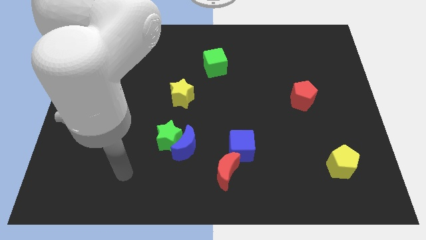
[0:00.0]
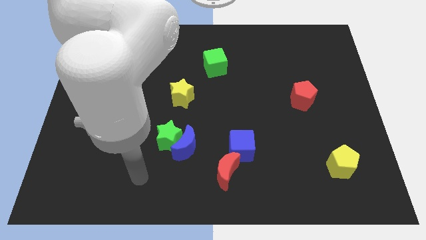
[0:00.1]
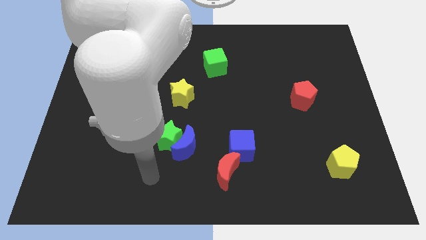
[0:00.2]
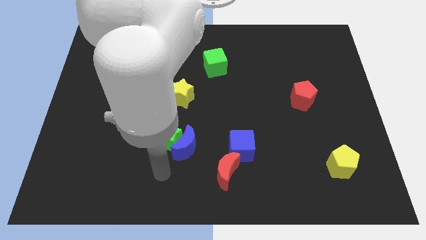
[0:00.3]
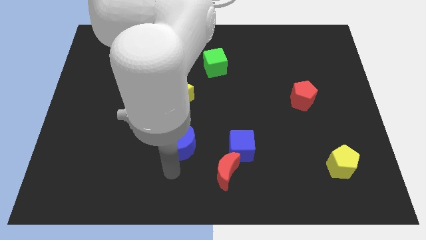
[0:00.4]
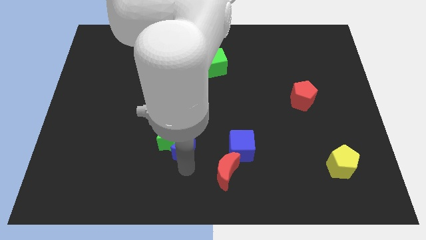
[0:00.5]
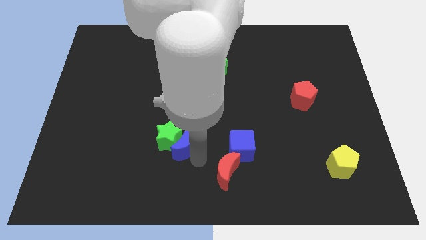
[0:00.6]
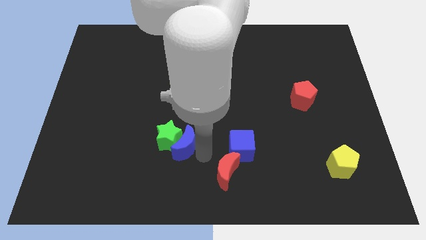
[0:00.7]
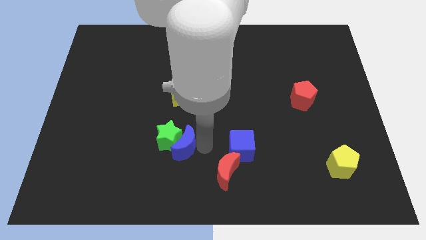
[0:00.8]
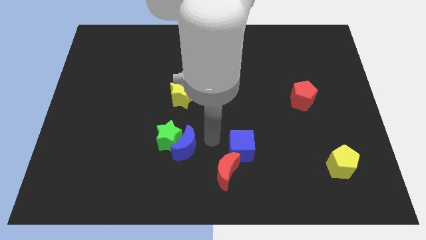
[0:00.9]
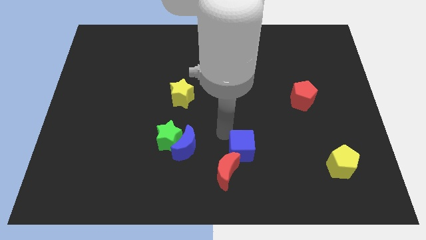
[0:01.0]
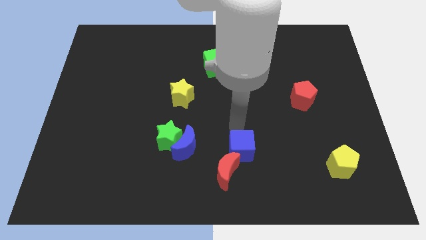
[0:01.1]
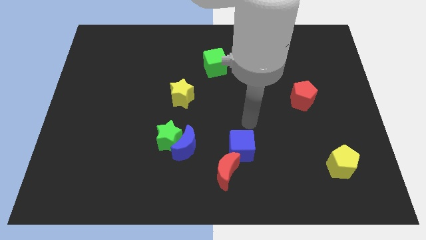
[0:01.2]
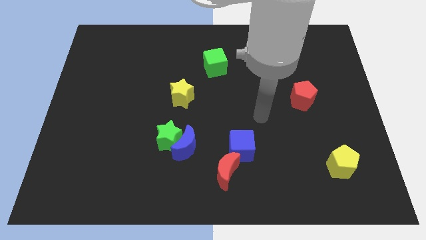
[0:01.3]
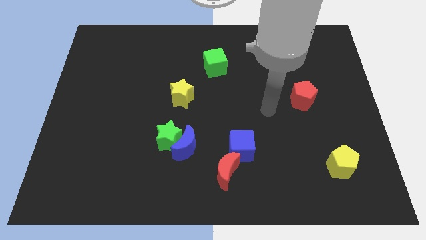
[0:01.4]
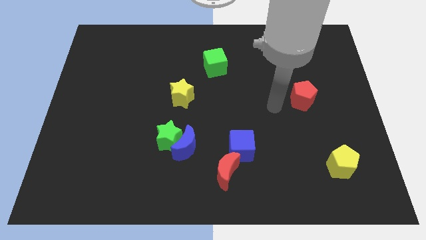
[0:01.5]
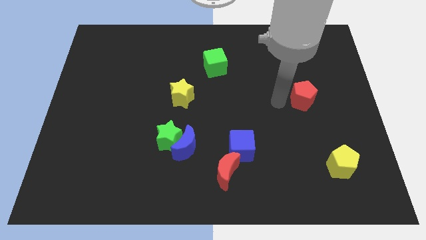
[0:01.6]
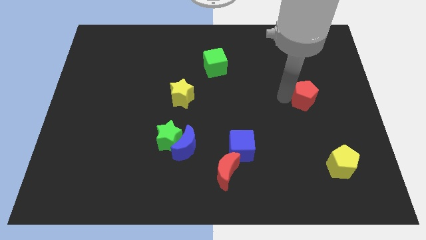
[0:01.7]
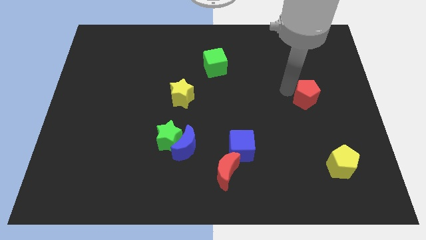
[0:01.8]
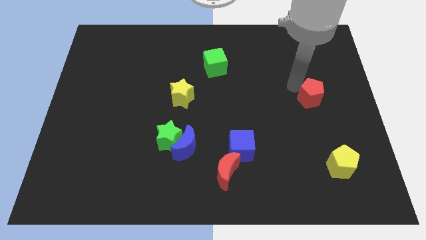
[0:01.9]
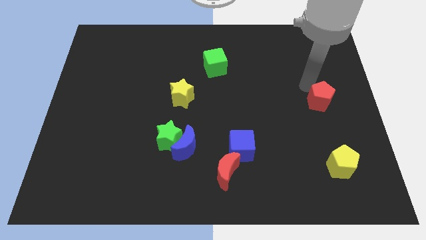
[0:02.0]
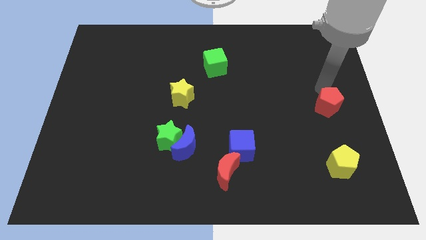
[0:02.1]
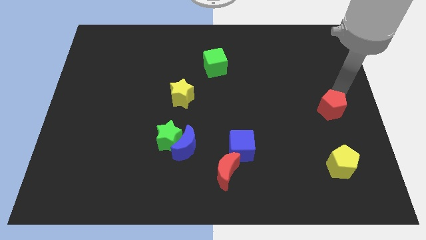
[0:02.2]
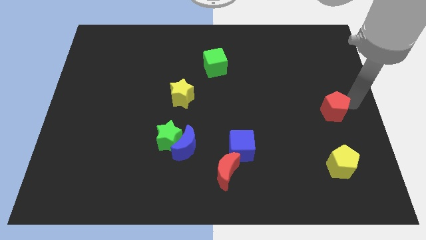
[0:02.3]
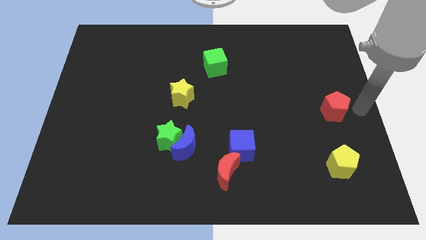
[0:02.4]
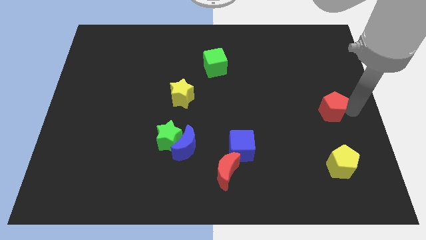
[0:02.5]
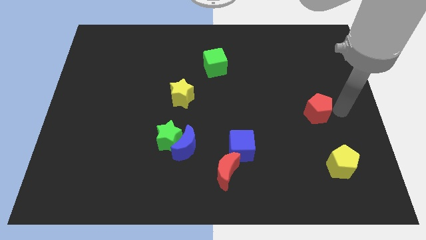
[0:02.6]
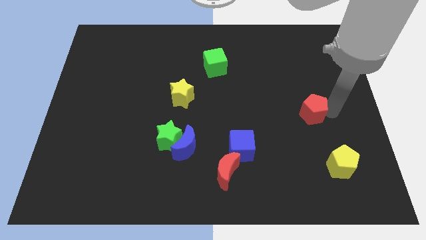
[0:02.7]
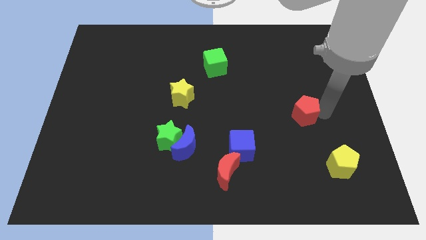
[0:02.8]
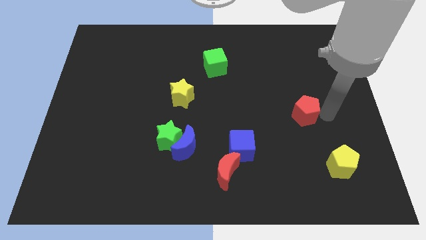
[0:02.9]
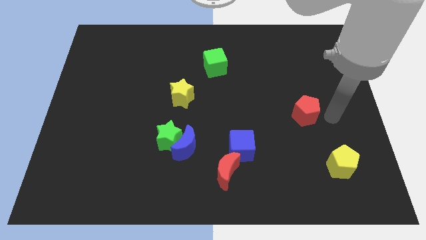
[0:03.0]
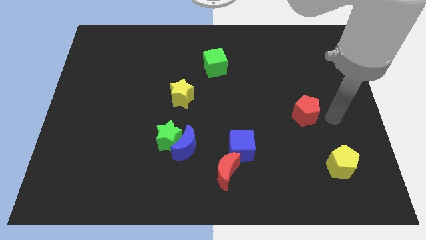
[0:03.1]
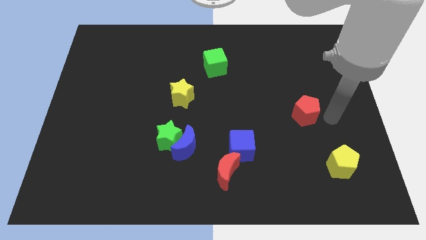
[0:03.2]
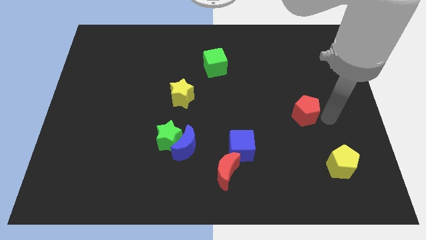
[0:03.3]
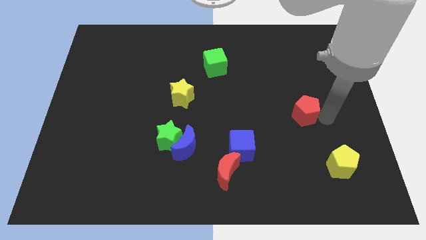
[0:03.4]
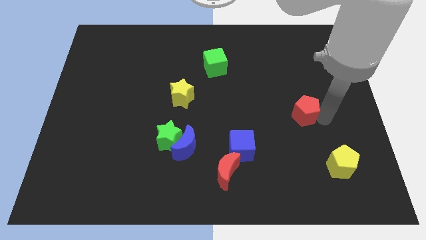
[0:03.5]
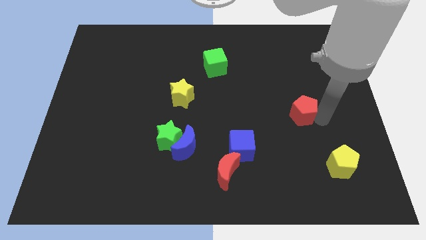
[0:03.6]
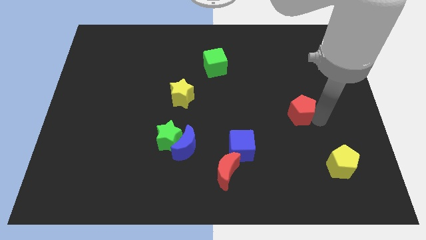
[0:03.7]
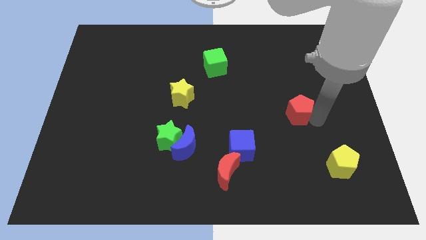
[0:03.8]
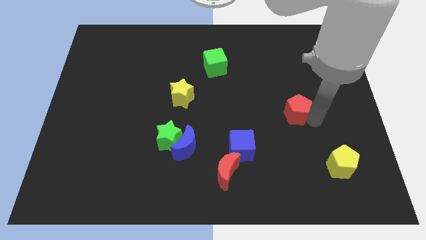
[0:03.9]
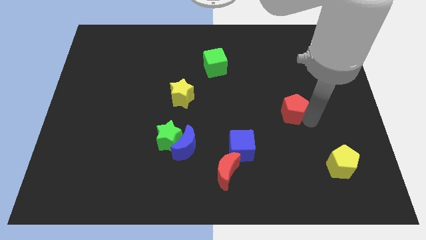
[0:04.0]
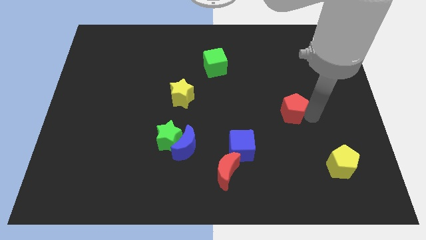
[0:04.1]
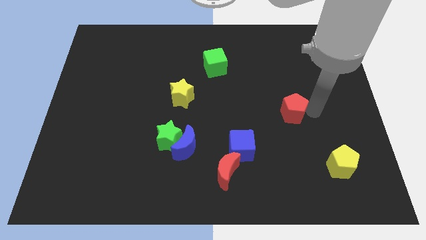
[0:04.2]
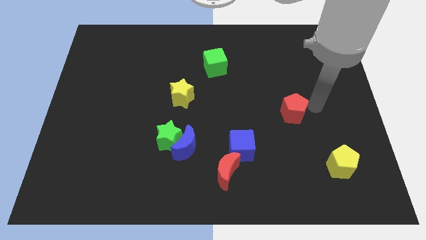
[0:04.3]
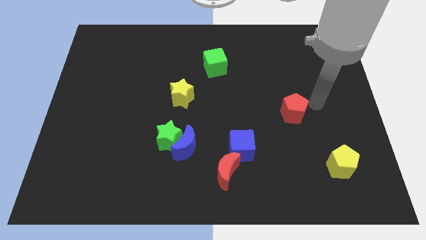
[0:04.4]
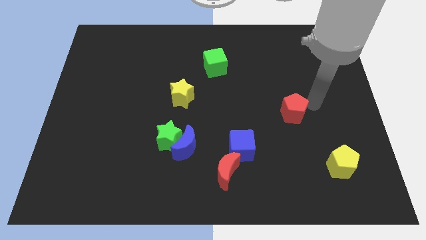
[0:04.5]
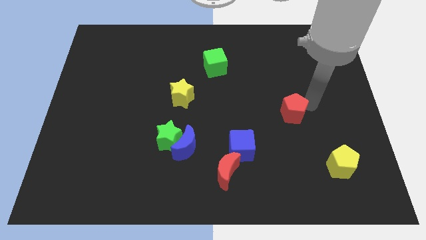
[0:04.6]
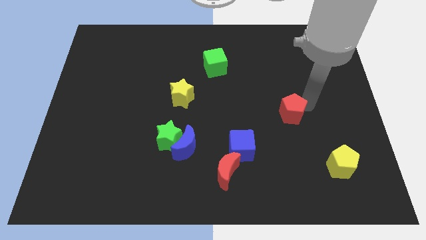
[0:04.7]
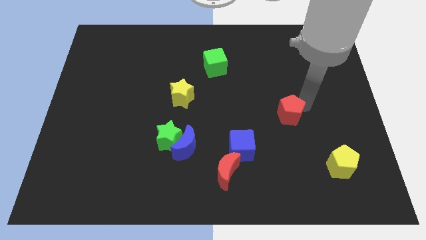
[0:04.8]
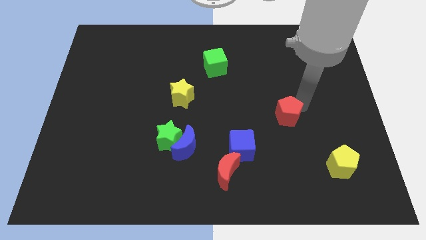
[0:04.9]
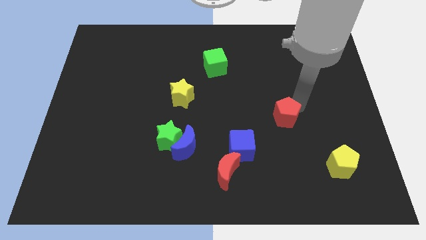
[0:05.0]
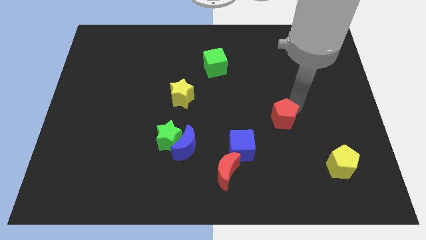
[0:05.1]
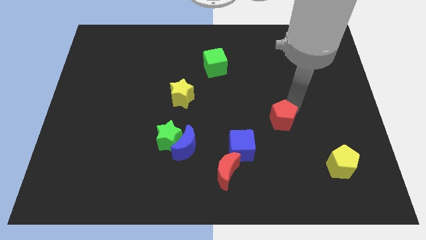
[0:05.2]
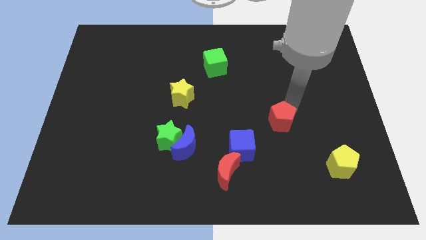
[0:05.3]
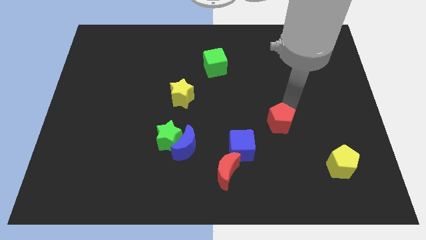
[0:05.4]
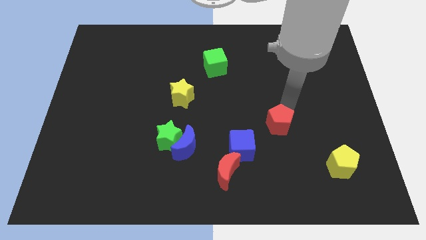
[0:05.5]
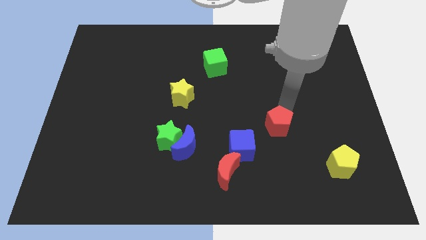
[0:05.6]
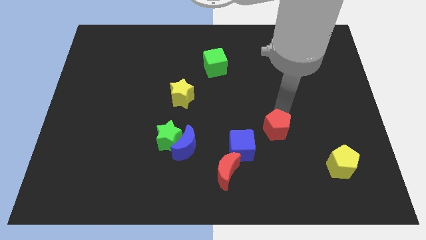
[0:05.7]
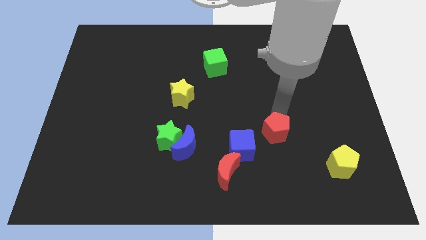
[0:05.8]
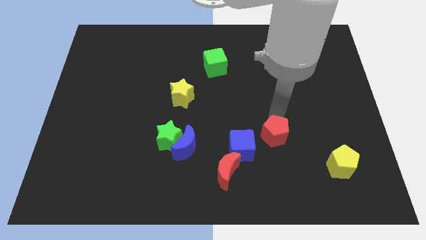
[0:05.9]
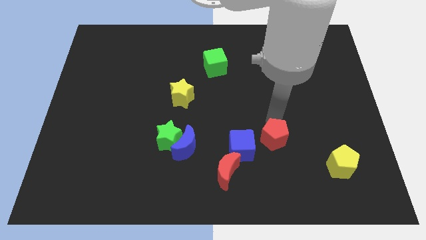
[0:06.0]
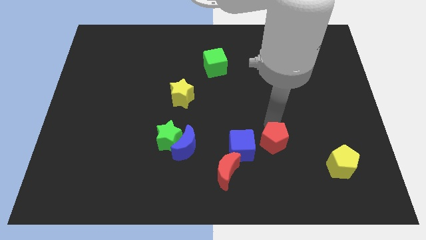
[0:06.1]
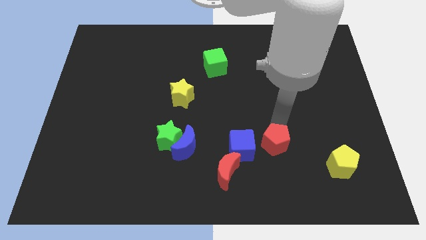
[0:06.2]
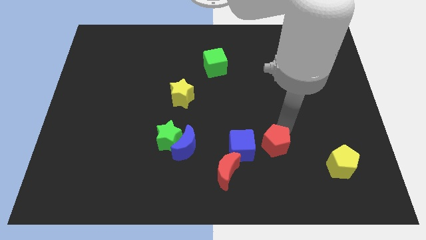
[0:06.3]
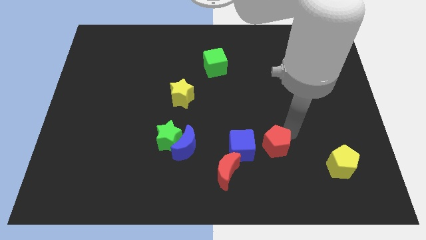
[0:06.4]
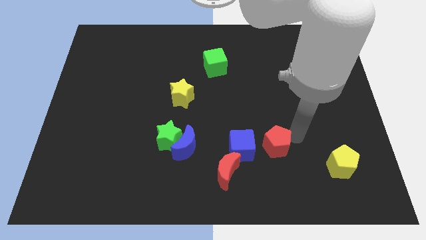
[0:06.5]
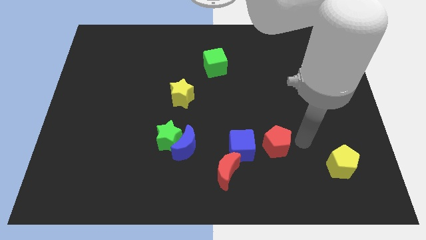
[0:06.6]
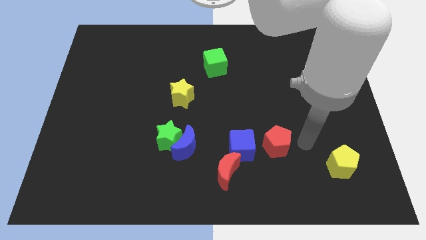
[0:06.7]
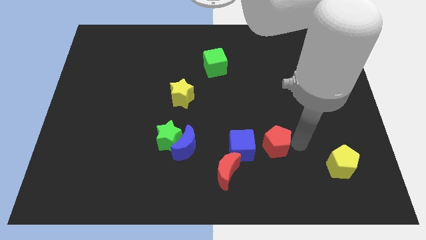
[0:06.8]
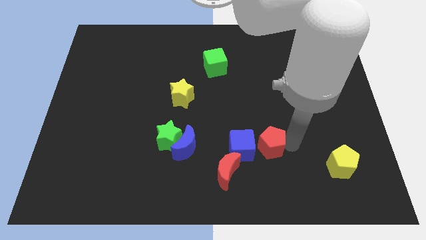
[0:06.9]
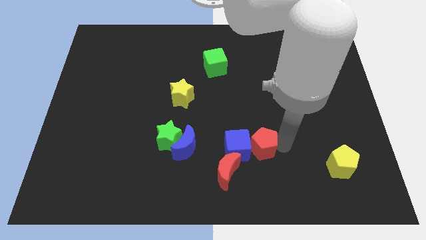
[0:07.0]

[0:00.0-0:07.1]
slide the red pentagon next to the blue cube
